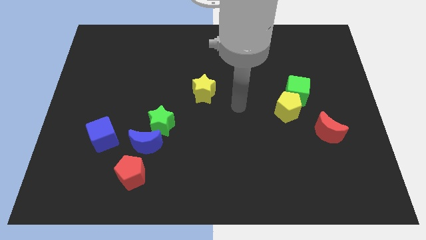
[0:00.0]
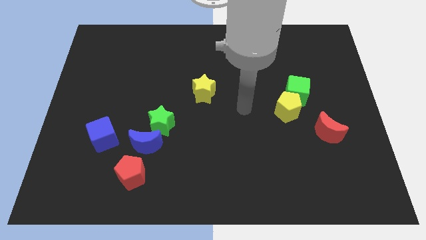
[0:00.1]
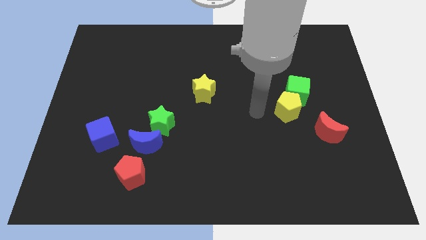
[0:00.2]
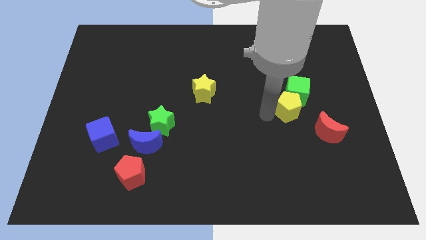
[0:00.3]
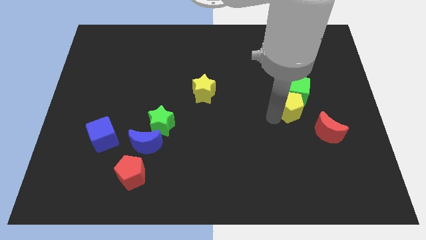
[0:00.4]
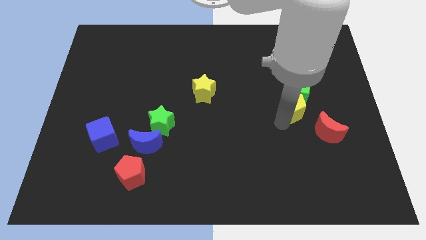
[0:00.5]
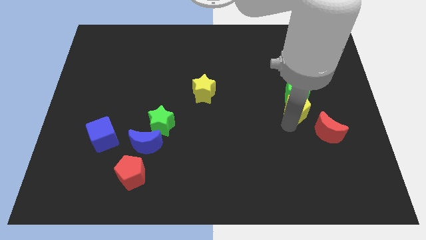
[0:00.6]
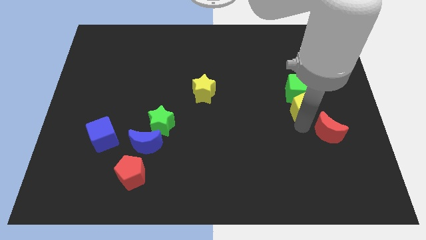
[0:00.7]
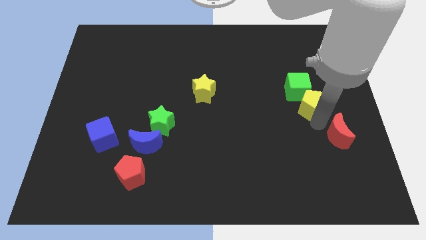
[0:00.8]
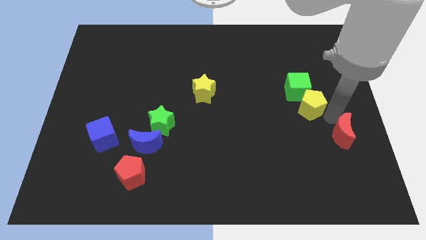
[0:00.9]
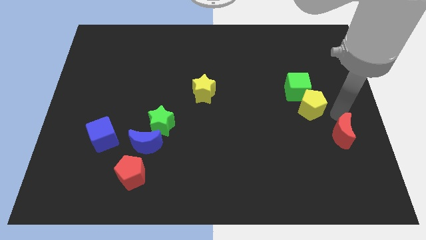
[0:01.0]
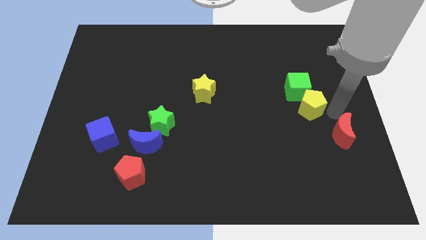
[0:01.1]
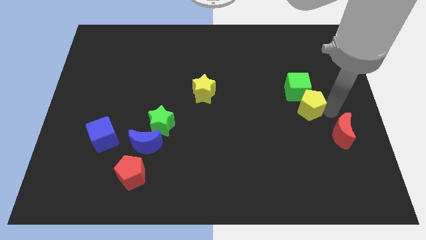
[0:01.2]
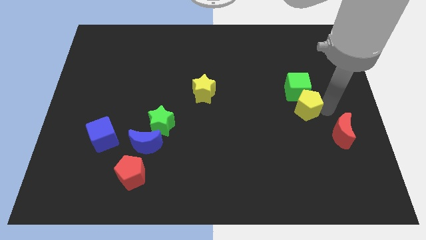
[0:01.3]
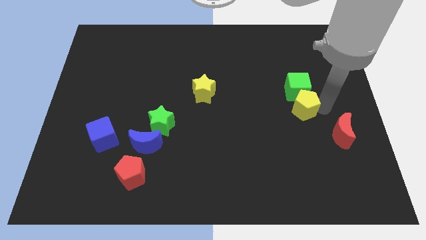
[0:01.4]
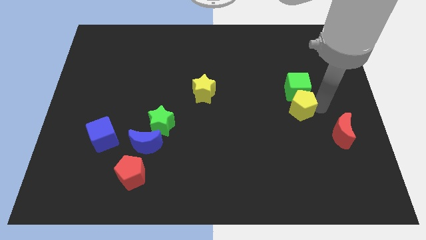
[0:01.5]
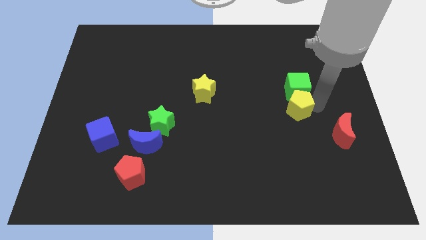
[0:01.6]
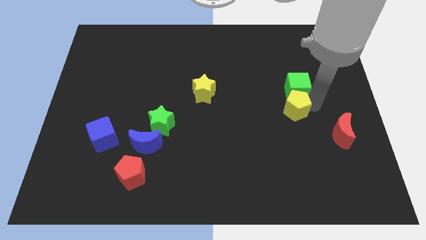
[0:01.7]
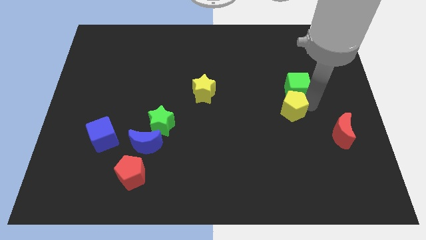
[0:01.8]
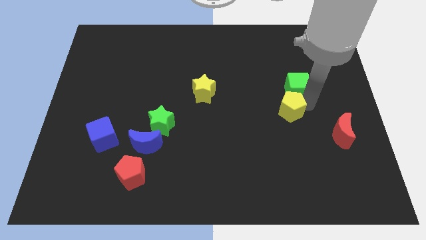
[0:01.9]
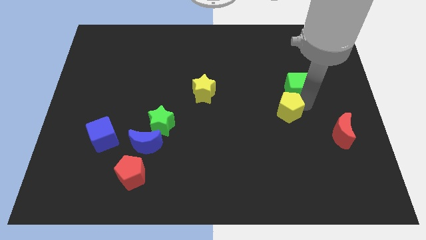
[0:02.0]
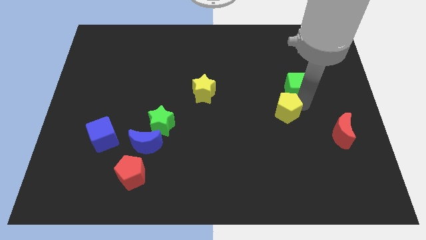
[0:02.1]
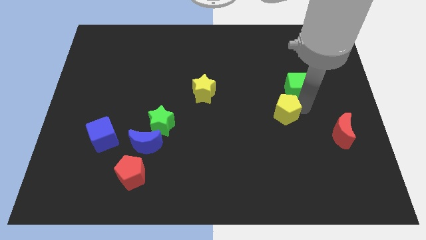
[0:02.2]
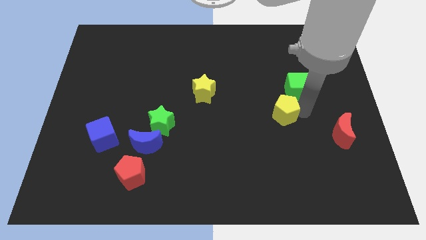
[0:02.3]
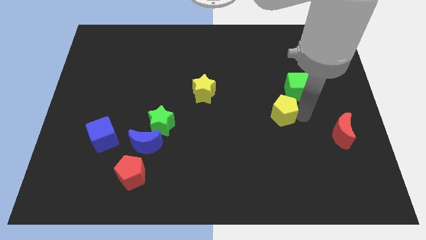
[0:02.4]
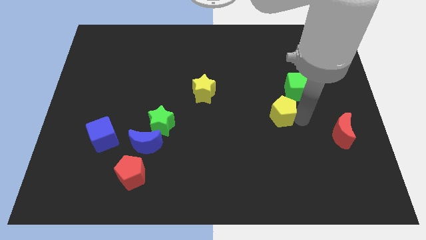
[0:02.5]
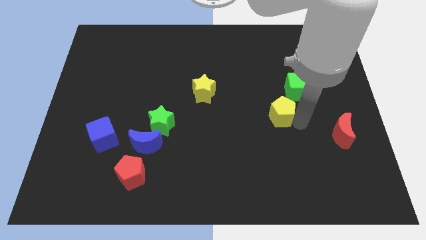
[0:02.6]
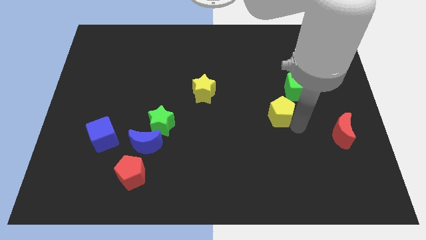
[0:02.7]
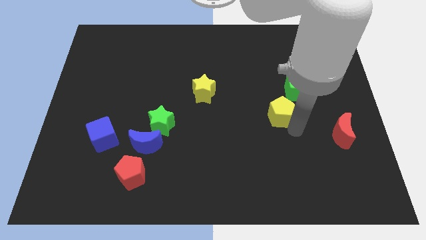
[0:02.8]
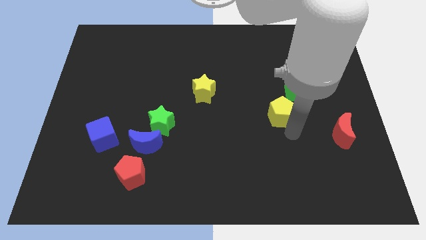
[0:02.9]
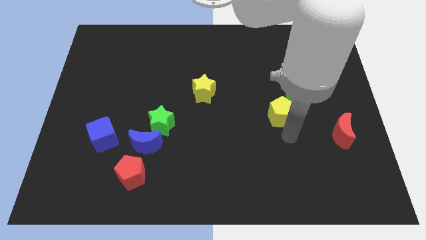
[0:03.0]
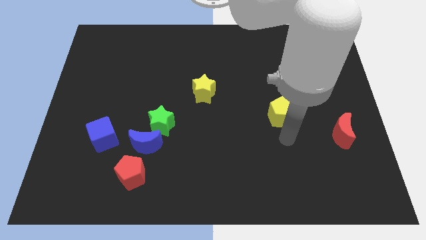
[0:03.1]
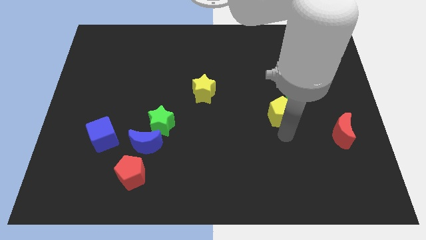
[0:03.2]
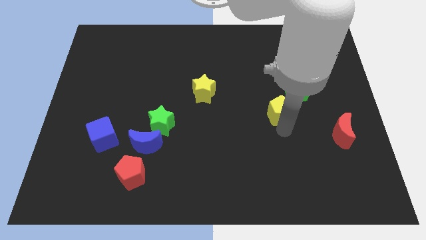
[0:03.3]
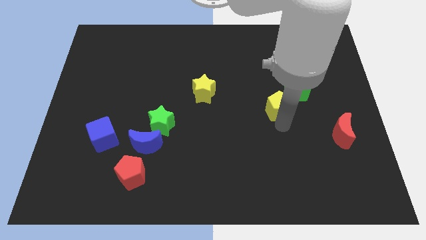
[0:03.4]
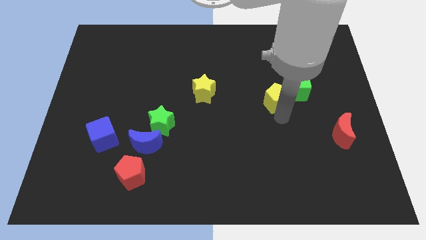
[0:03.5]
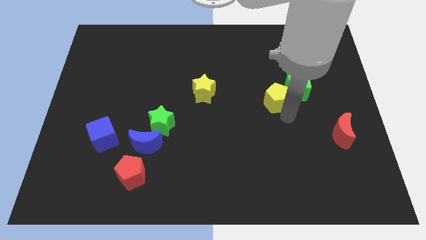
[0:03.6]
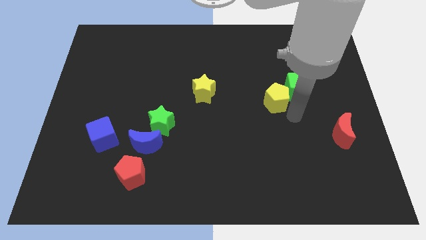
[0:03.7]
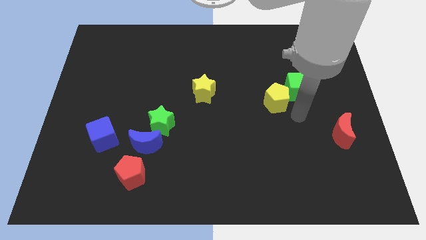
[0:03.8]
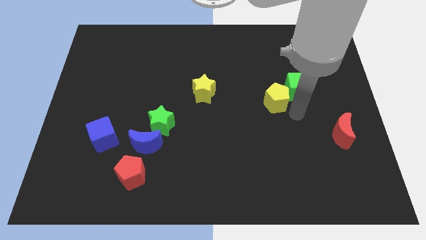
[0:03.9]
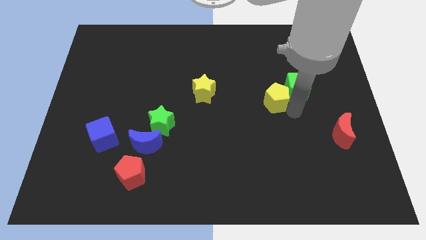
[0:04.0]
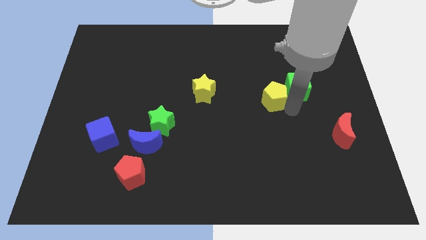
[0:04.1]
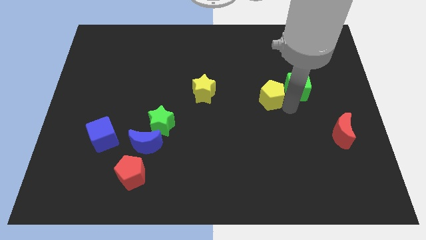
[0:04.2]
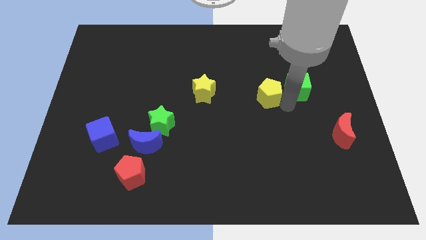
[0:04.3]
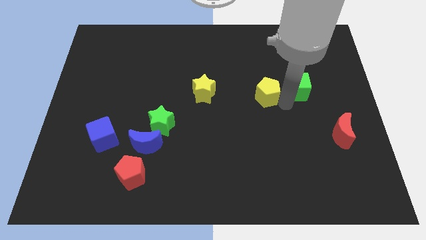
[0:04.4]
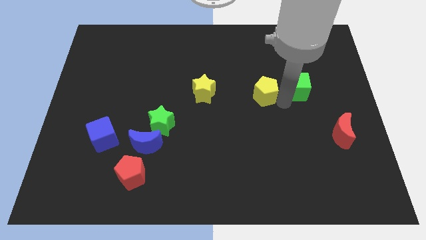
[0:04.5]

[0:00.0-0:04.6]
slide the yellow pentagon up and left a little bit

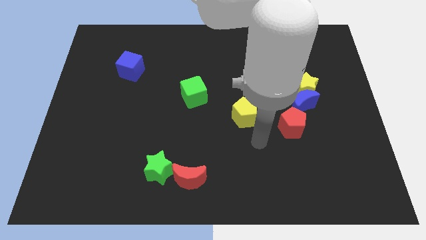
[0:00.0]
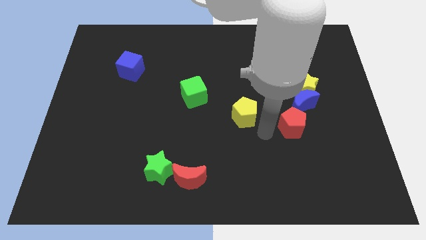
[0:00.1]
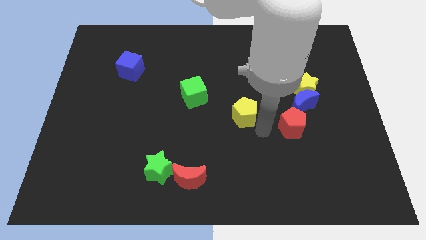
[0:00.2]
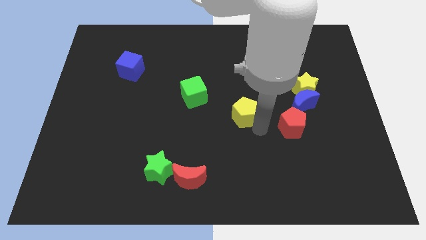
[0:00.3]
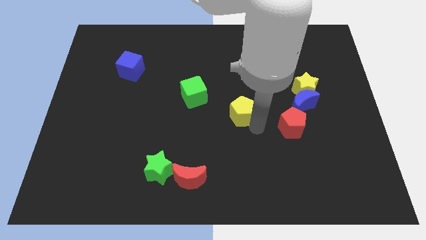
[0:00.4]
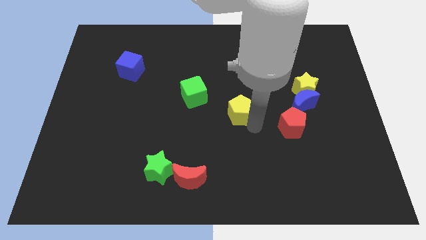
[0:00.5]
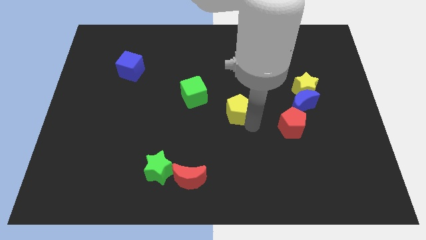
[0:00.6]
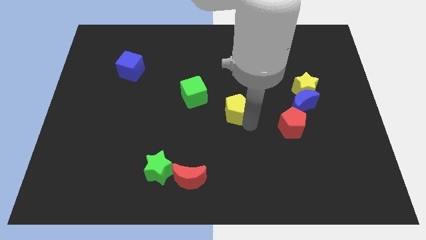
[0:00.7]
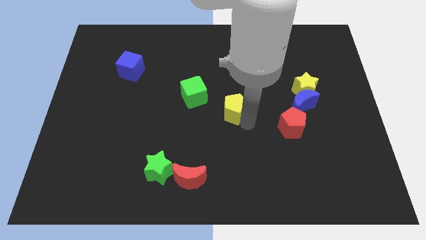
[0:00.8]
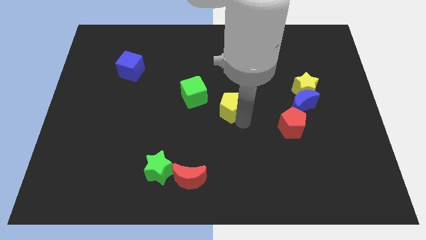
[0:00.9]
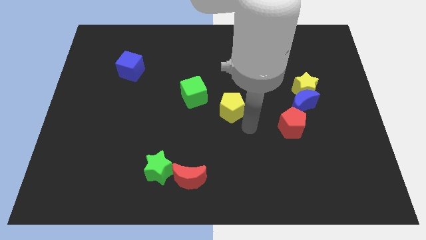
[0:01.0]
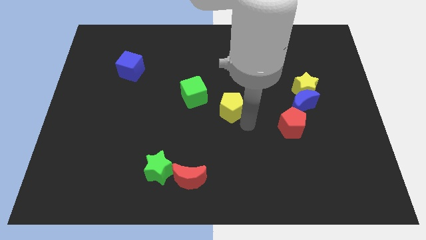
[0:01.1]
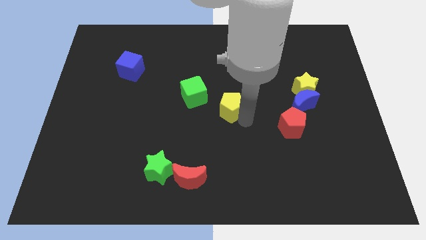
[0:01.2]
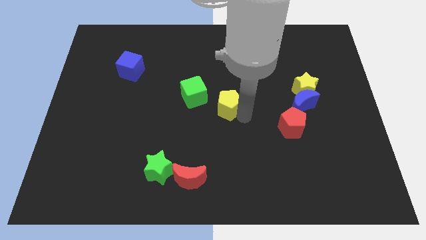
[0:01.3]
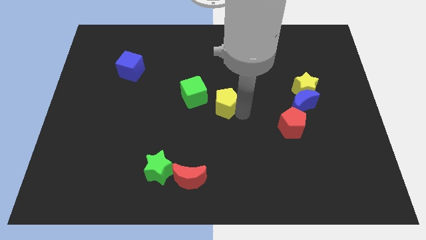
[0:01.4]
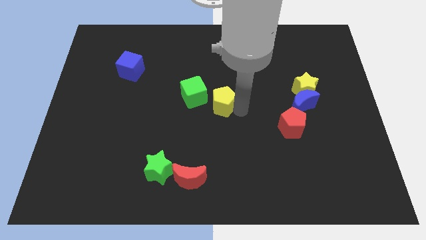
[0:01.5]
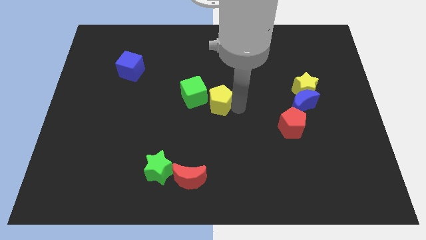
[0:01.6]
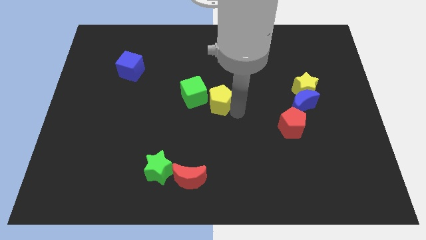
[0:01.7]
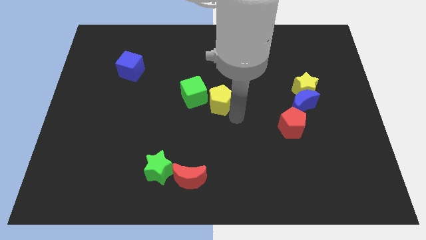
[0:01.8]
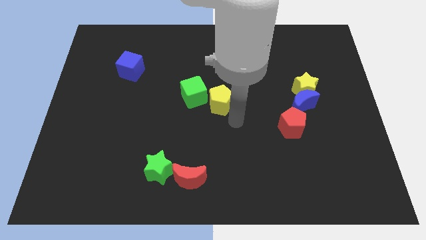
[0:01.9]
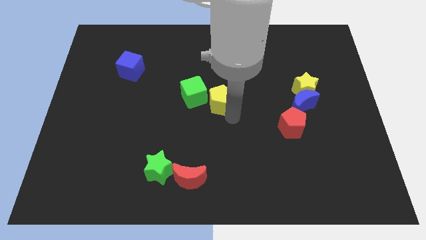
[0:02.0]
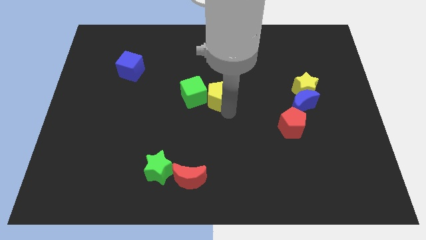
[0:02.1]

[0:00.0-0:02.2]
slightly move the yellow pentagon upwards and left

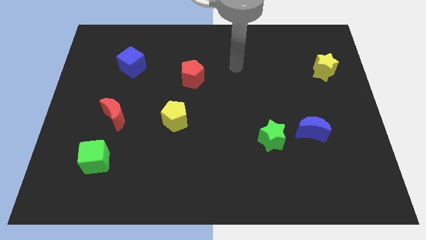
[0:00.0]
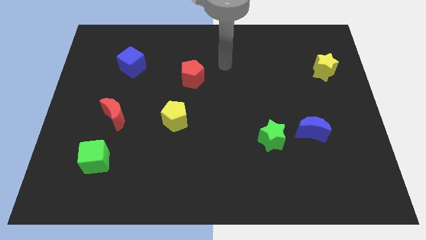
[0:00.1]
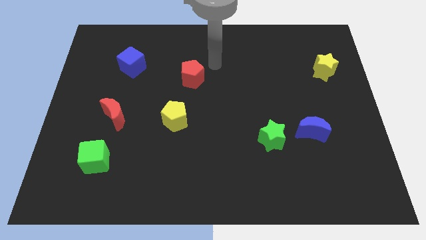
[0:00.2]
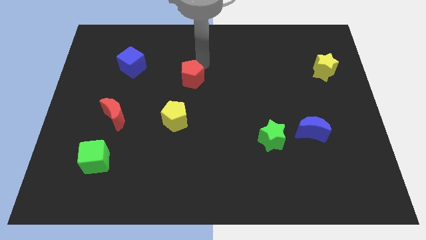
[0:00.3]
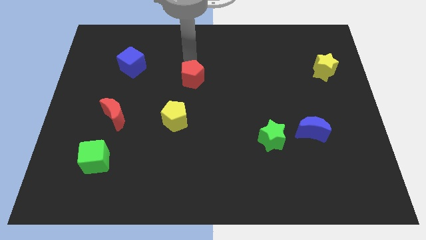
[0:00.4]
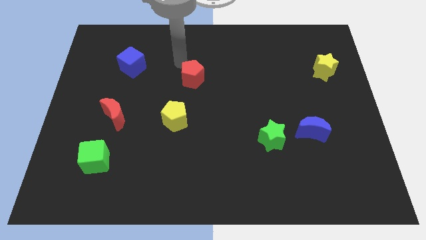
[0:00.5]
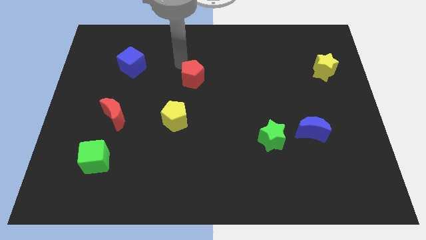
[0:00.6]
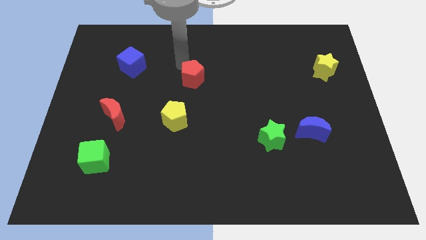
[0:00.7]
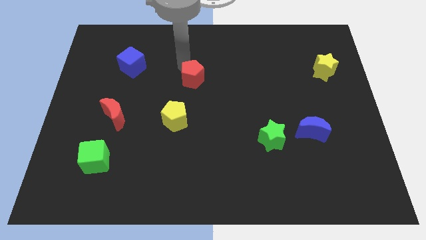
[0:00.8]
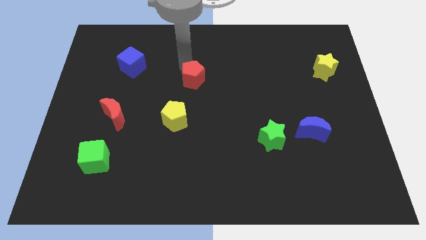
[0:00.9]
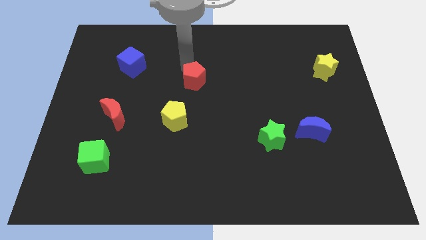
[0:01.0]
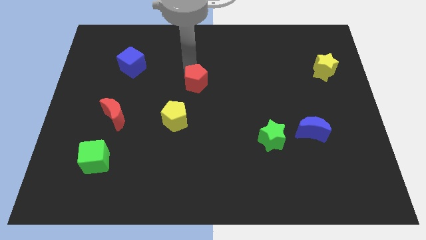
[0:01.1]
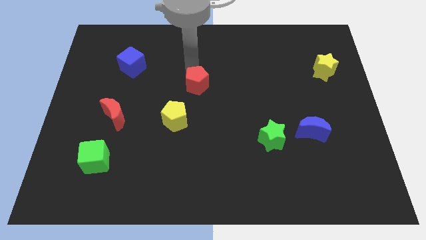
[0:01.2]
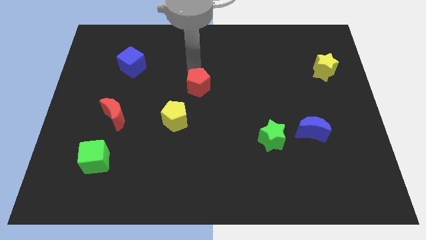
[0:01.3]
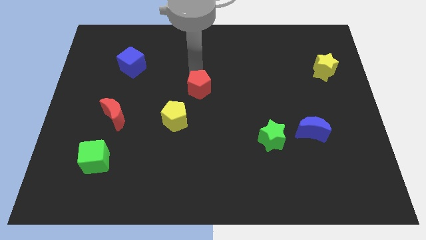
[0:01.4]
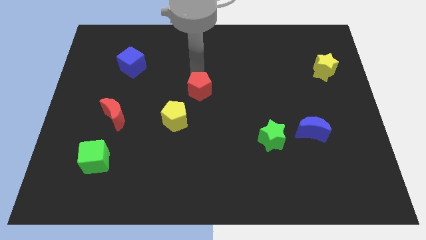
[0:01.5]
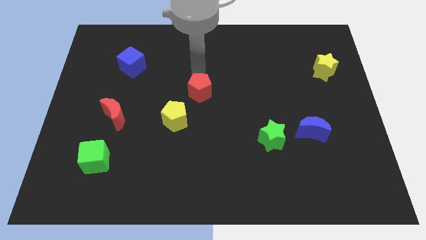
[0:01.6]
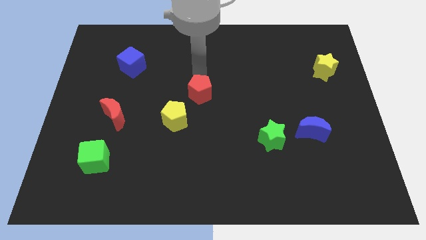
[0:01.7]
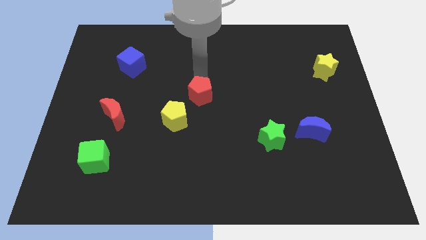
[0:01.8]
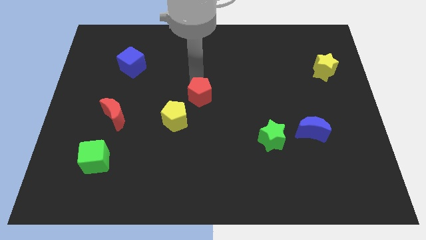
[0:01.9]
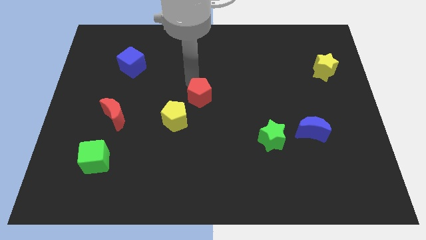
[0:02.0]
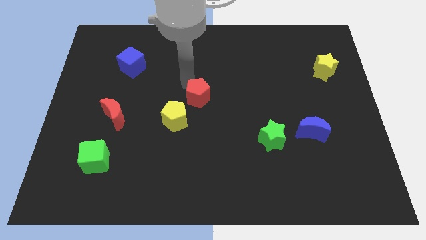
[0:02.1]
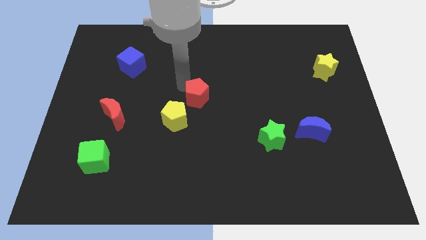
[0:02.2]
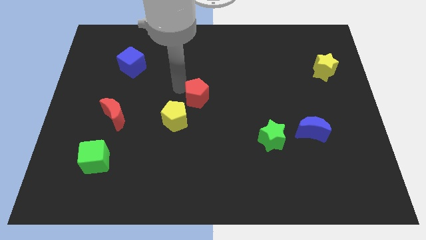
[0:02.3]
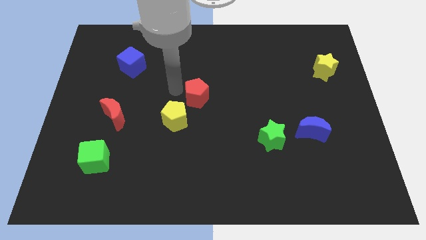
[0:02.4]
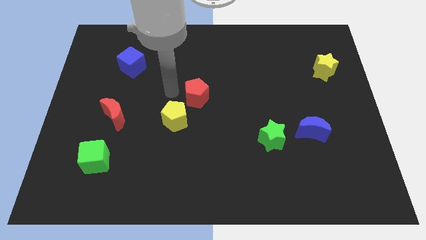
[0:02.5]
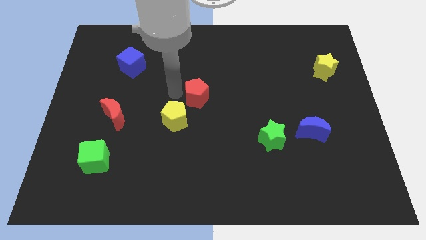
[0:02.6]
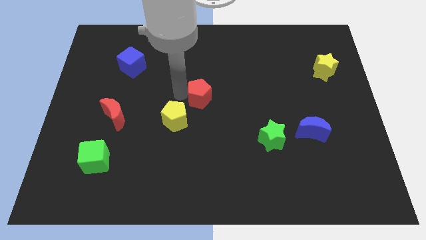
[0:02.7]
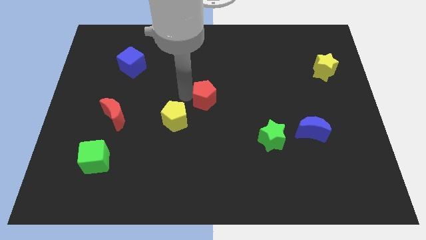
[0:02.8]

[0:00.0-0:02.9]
slide the red pentagon downwards and then right somewhat
